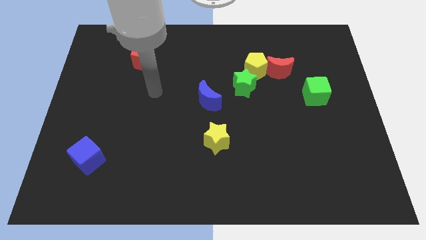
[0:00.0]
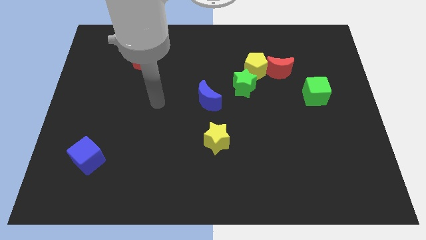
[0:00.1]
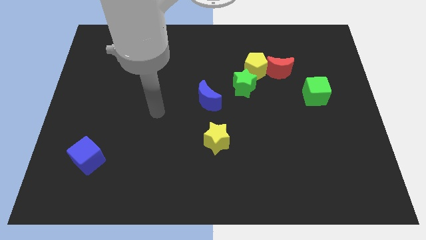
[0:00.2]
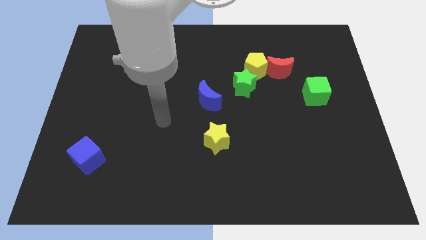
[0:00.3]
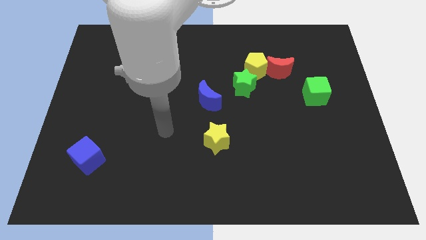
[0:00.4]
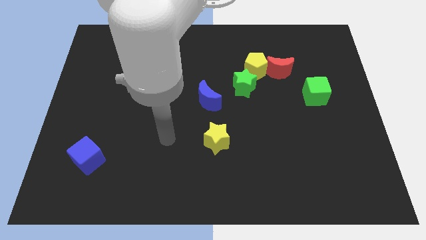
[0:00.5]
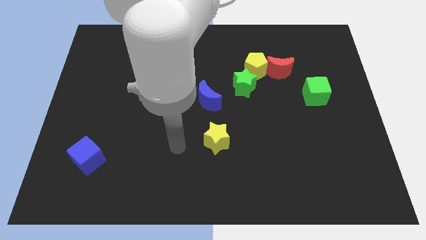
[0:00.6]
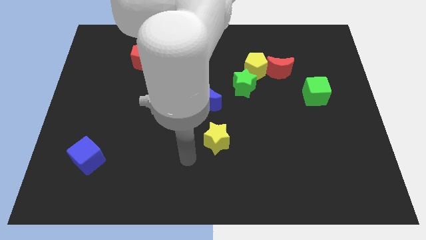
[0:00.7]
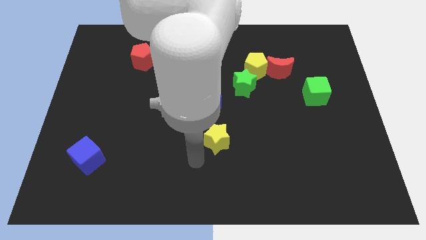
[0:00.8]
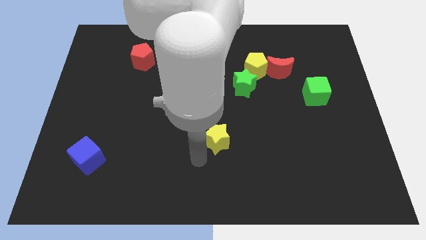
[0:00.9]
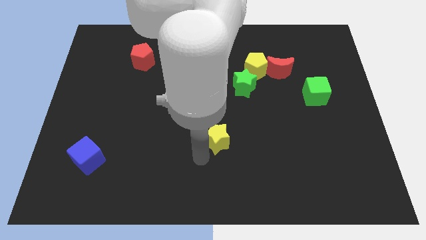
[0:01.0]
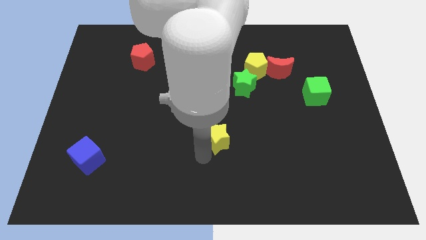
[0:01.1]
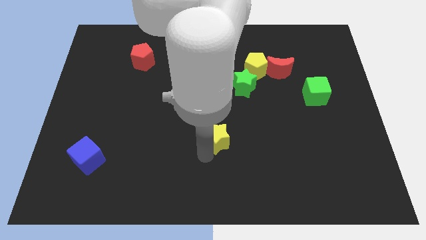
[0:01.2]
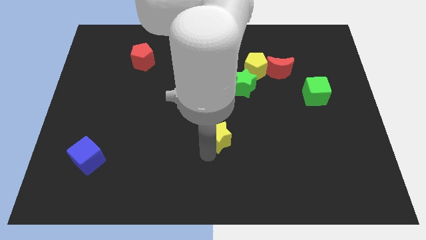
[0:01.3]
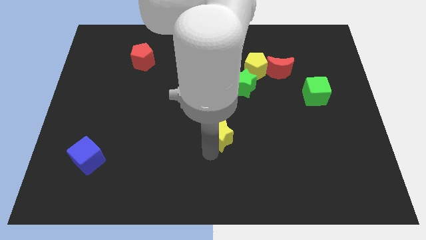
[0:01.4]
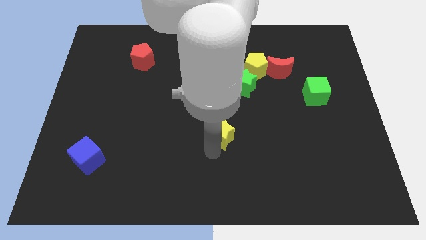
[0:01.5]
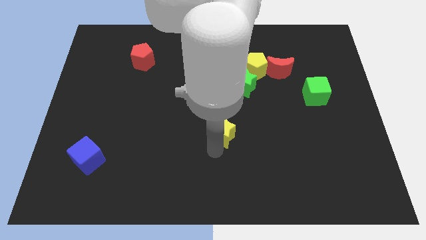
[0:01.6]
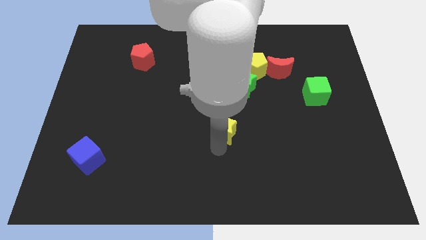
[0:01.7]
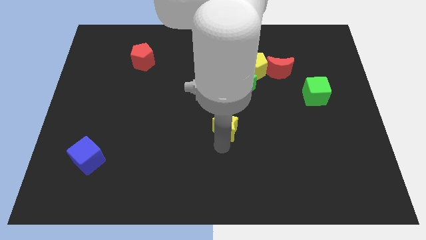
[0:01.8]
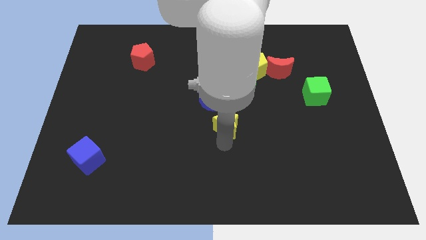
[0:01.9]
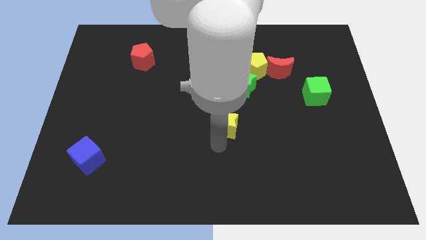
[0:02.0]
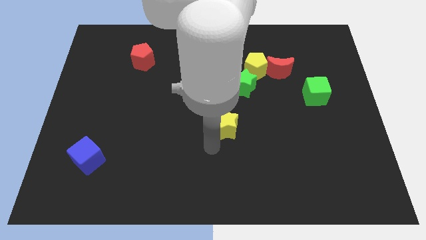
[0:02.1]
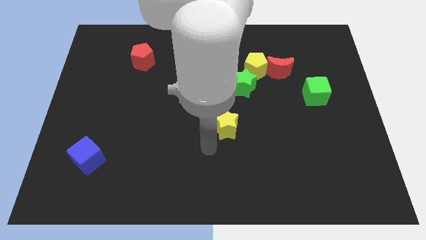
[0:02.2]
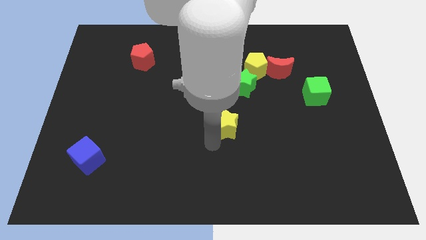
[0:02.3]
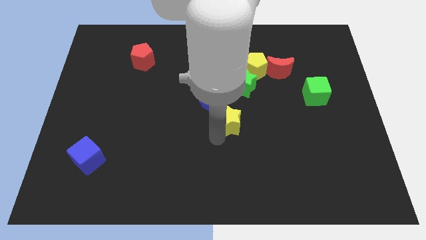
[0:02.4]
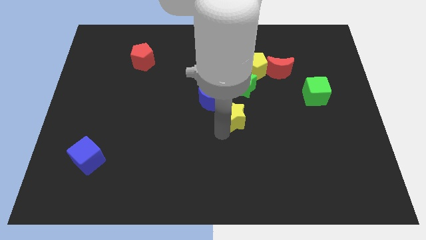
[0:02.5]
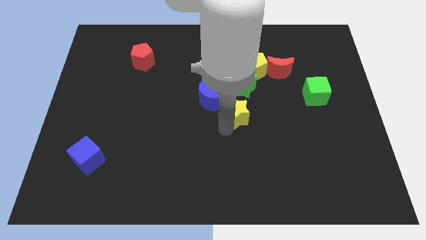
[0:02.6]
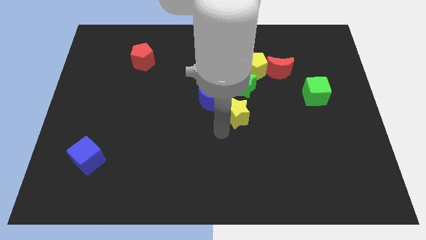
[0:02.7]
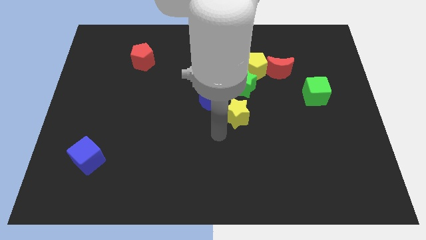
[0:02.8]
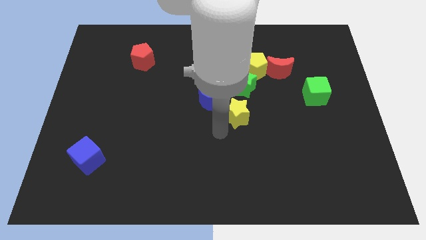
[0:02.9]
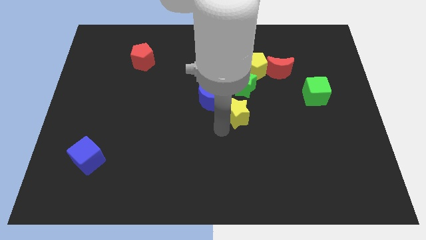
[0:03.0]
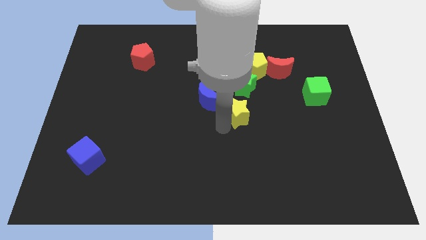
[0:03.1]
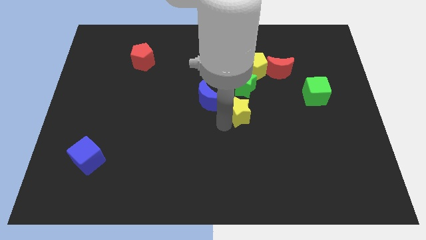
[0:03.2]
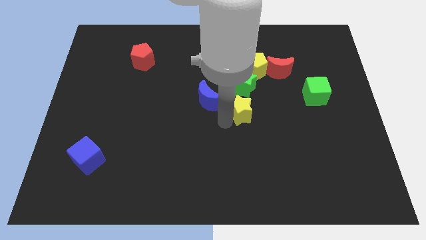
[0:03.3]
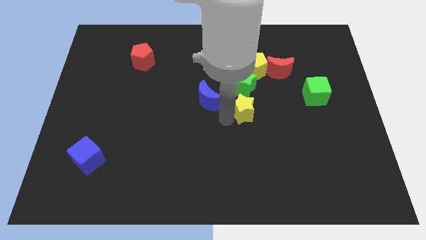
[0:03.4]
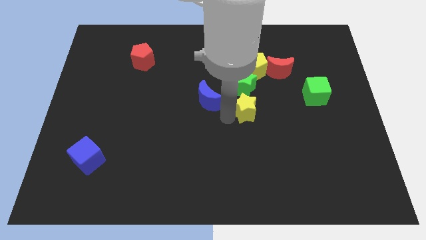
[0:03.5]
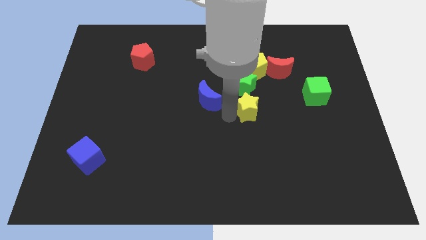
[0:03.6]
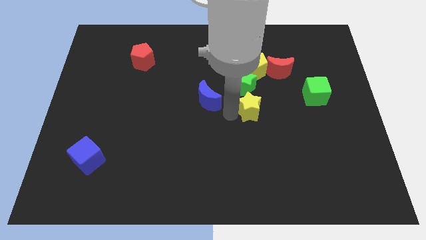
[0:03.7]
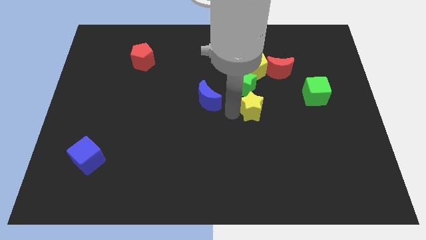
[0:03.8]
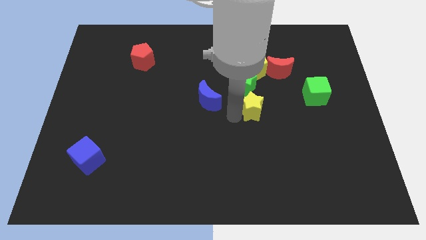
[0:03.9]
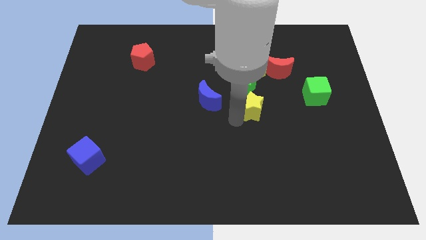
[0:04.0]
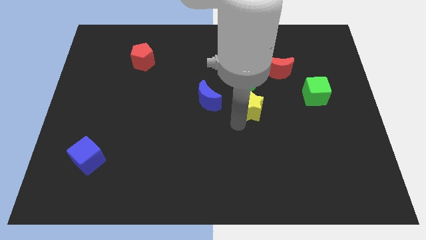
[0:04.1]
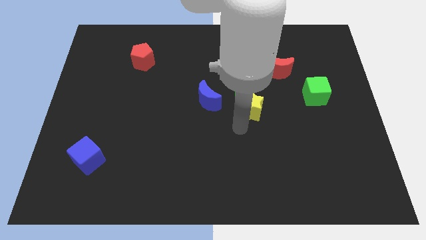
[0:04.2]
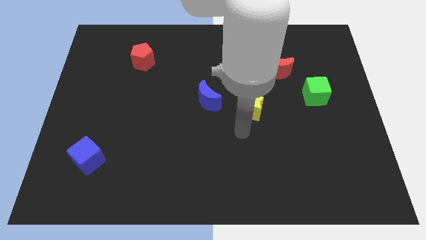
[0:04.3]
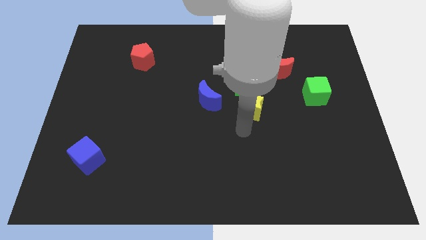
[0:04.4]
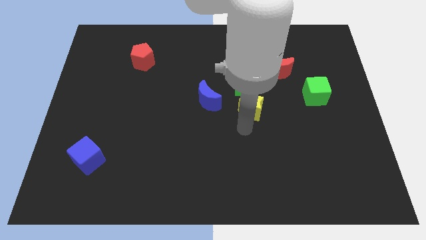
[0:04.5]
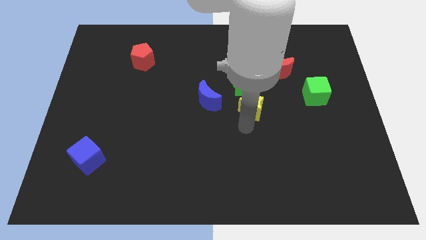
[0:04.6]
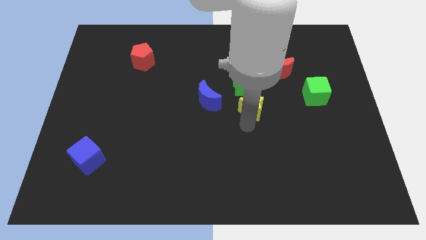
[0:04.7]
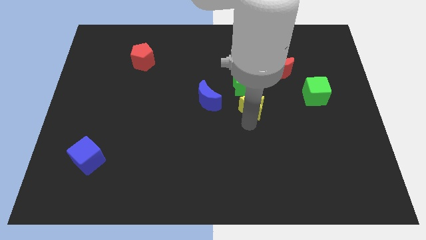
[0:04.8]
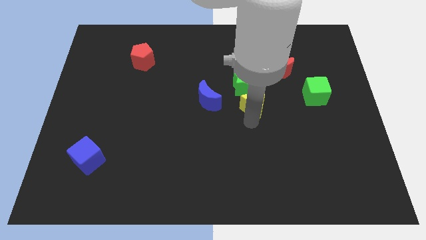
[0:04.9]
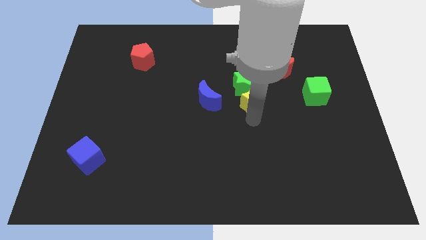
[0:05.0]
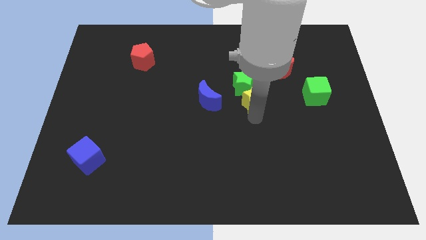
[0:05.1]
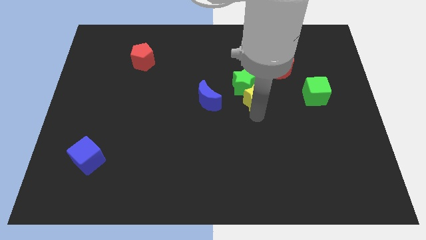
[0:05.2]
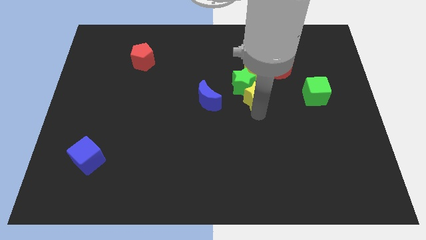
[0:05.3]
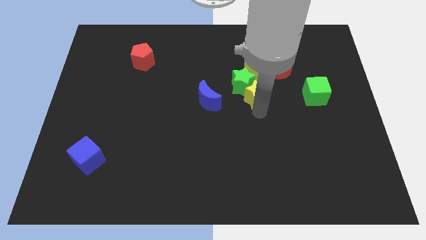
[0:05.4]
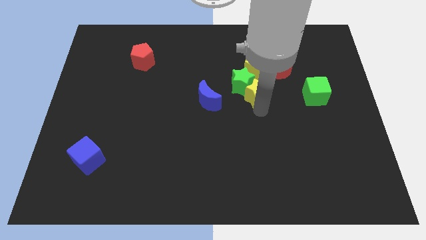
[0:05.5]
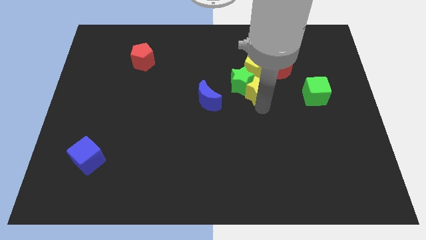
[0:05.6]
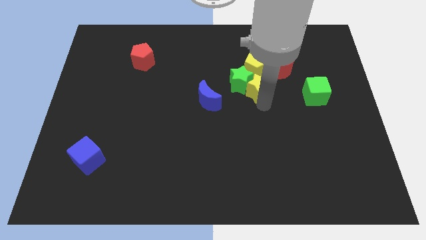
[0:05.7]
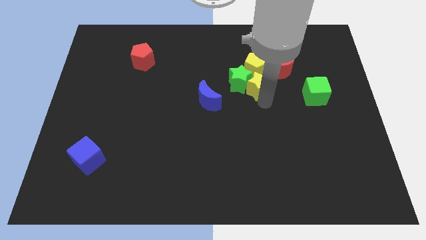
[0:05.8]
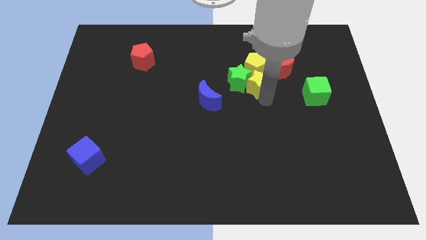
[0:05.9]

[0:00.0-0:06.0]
move the yellow star to the yellow pentagon
